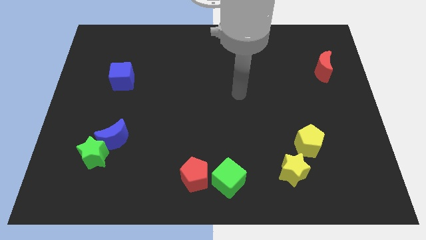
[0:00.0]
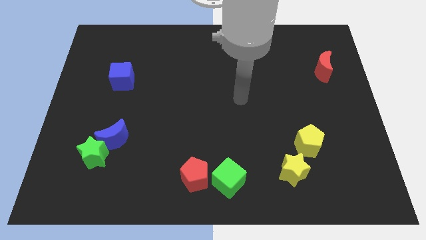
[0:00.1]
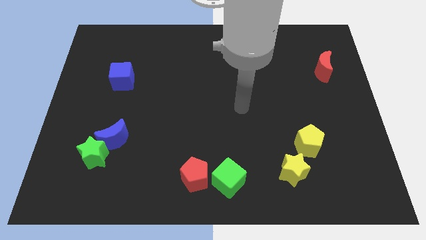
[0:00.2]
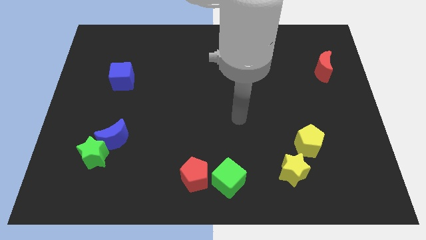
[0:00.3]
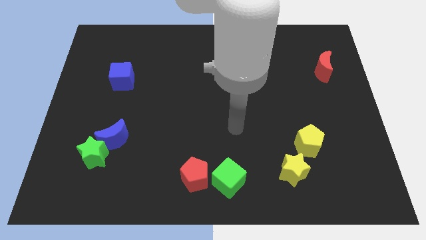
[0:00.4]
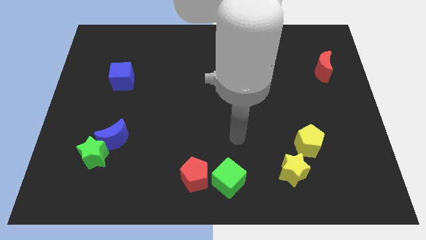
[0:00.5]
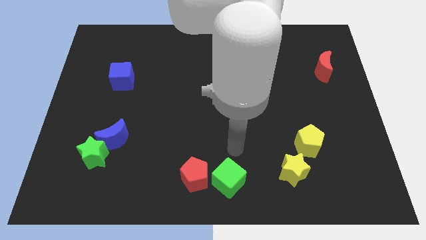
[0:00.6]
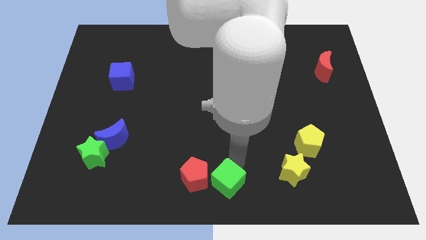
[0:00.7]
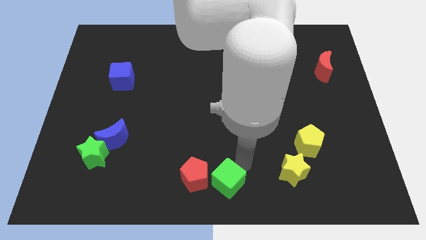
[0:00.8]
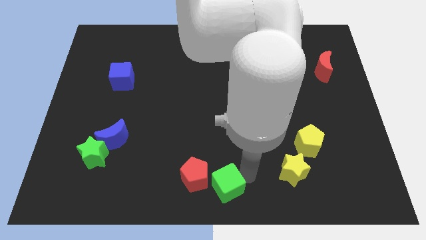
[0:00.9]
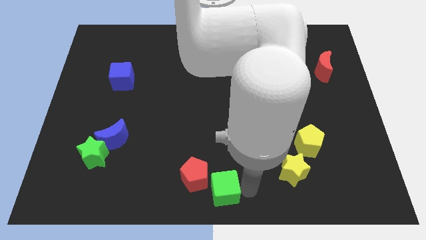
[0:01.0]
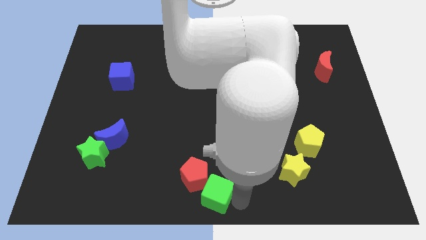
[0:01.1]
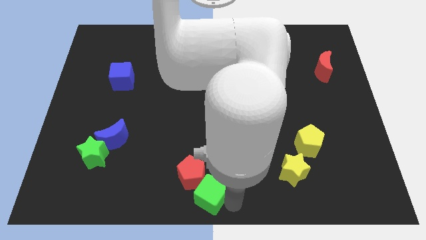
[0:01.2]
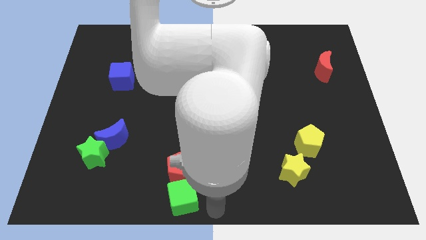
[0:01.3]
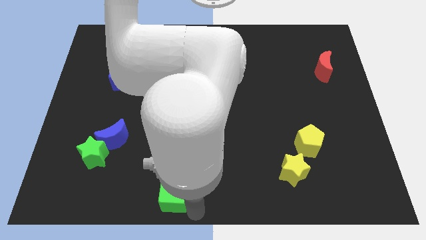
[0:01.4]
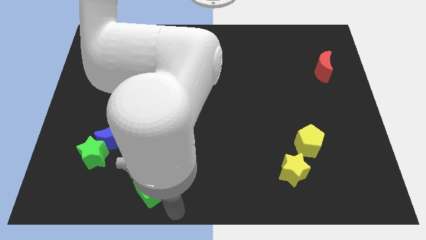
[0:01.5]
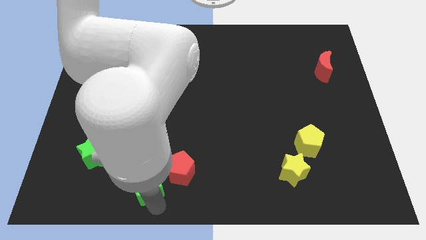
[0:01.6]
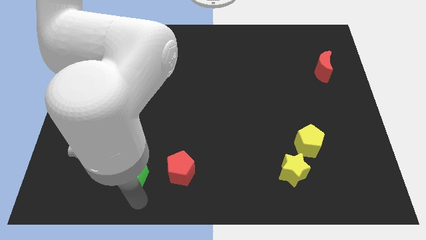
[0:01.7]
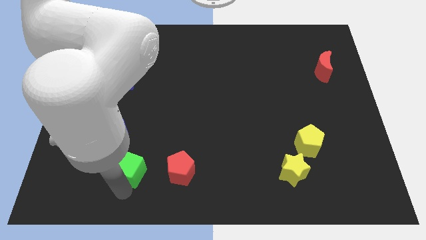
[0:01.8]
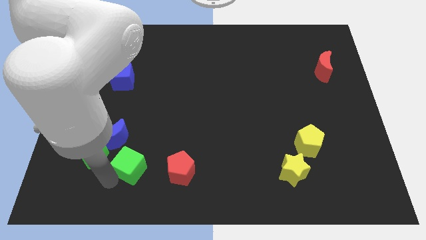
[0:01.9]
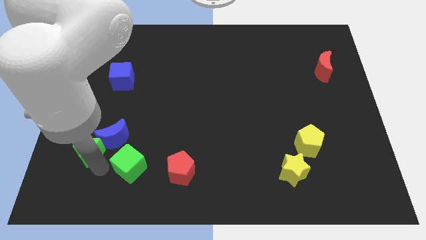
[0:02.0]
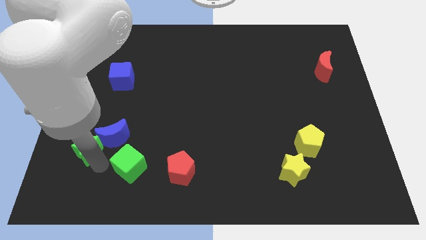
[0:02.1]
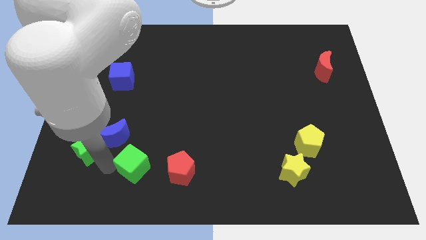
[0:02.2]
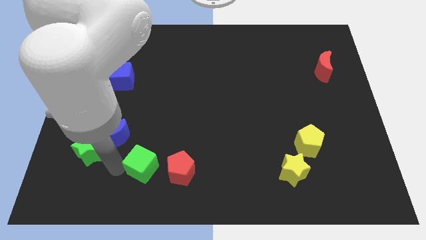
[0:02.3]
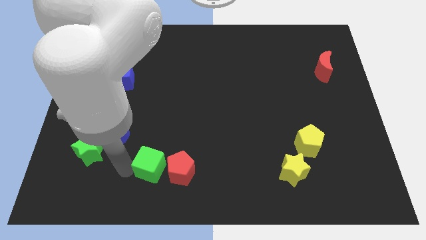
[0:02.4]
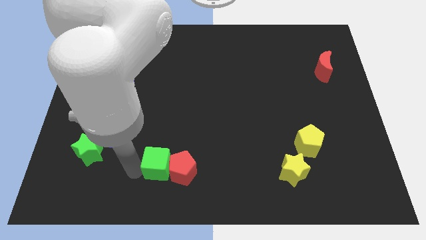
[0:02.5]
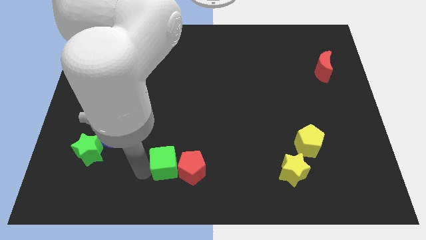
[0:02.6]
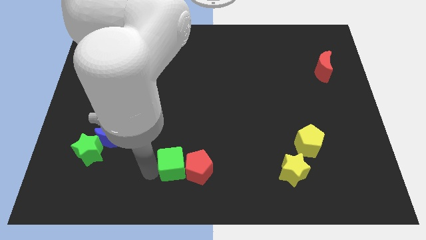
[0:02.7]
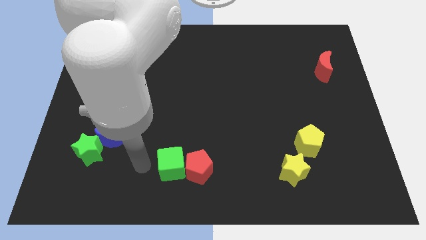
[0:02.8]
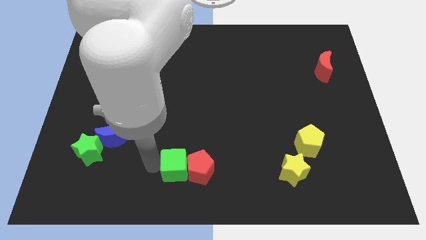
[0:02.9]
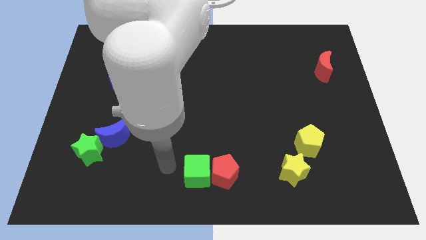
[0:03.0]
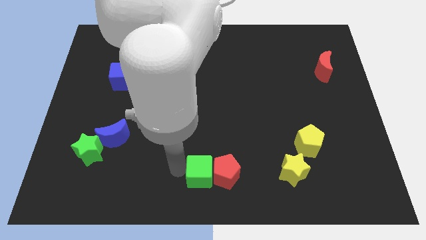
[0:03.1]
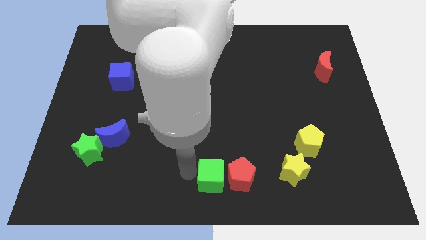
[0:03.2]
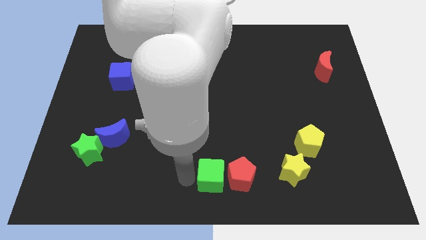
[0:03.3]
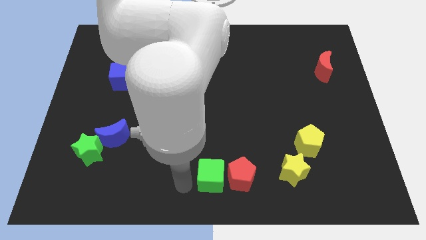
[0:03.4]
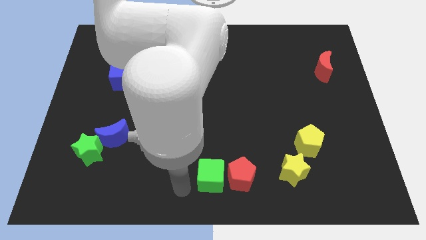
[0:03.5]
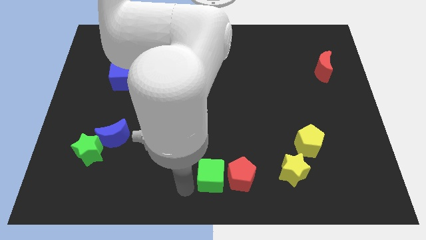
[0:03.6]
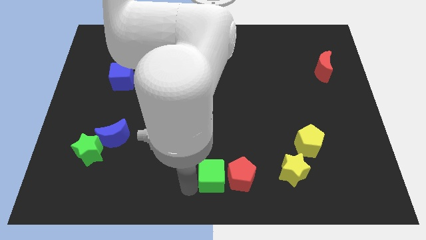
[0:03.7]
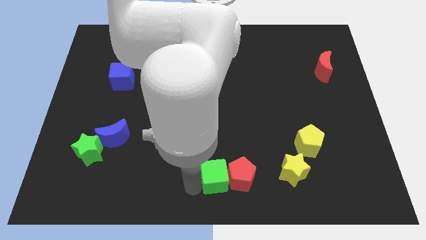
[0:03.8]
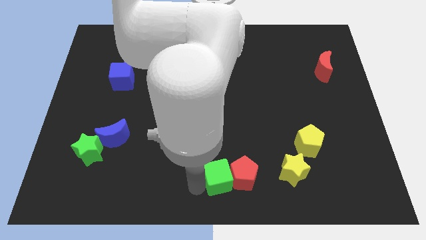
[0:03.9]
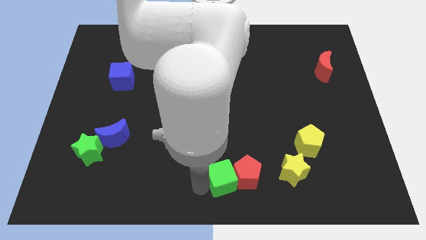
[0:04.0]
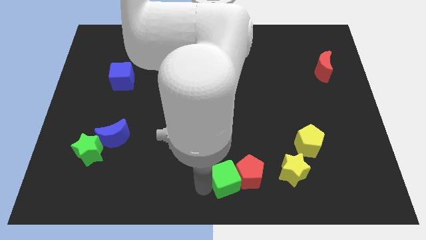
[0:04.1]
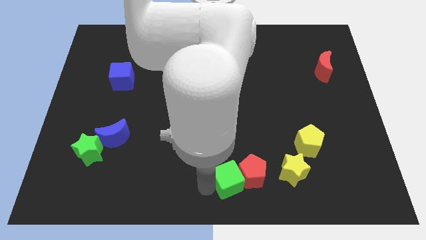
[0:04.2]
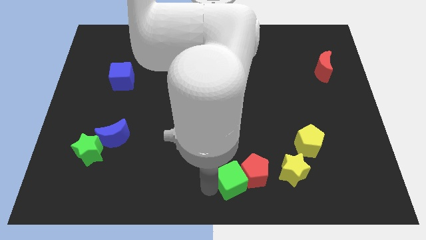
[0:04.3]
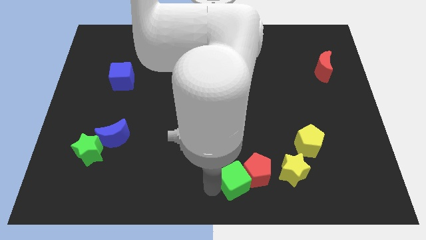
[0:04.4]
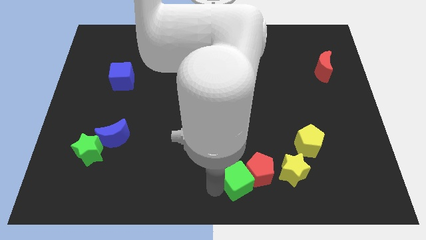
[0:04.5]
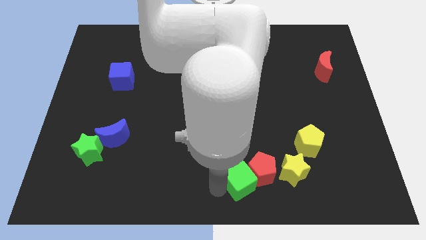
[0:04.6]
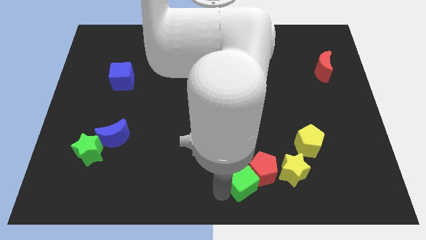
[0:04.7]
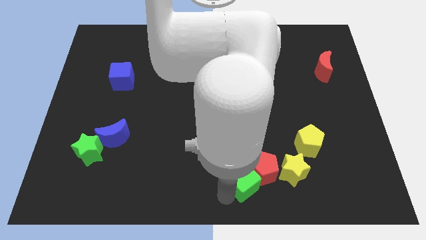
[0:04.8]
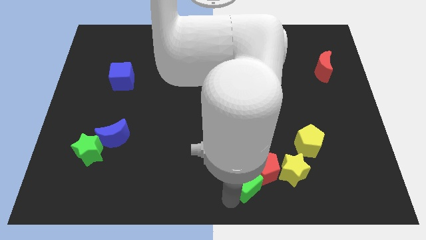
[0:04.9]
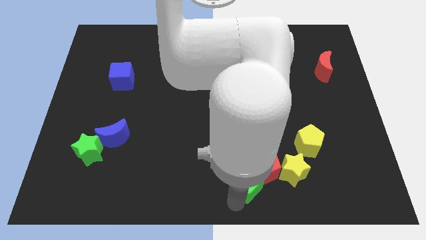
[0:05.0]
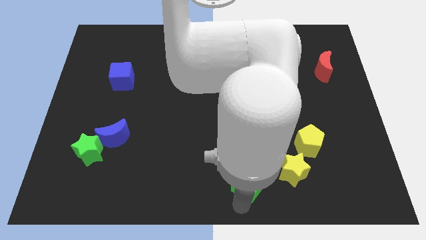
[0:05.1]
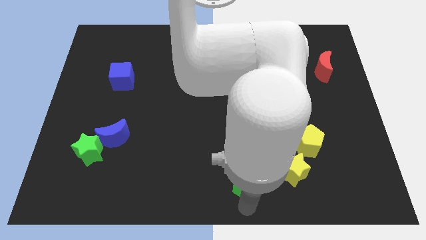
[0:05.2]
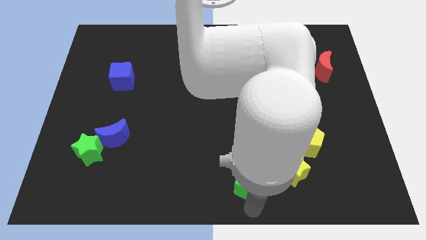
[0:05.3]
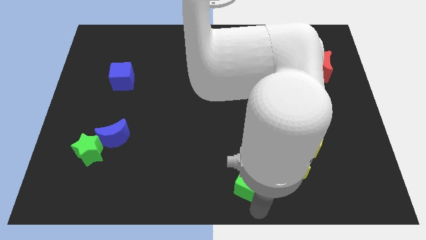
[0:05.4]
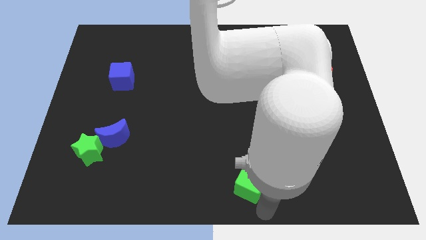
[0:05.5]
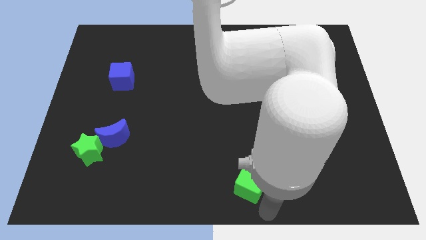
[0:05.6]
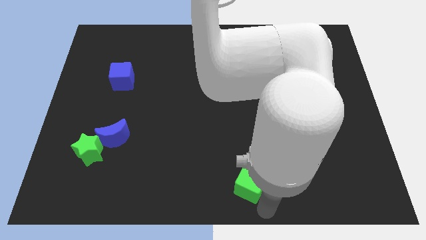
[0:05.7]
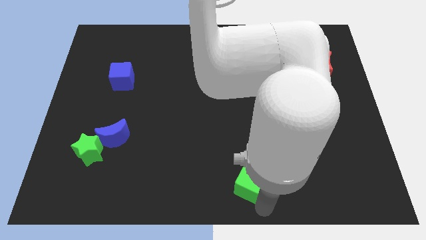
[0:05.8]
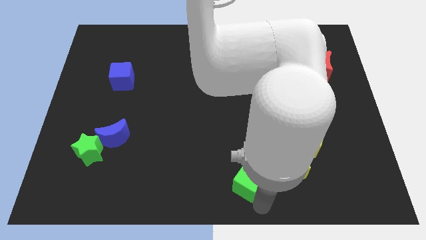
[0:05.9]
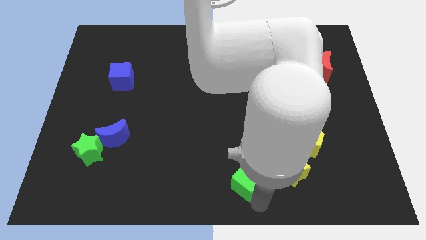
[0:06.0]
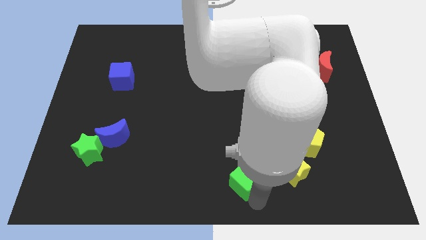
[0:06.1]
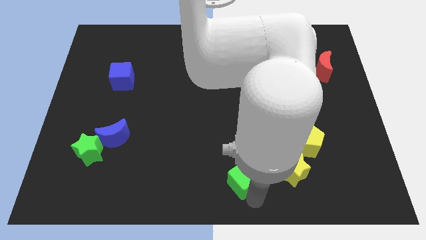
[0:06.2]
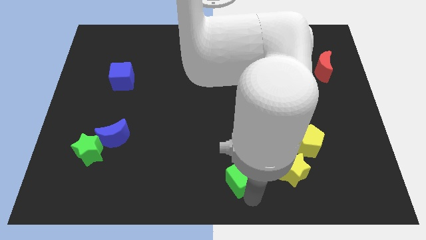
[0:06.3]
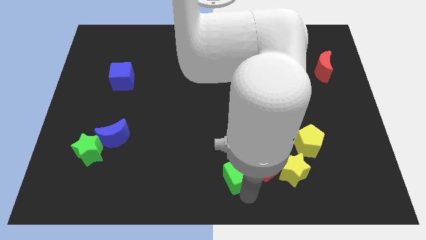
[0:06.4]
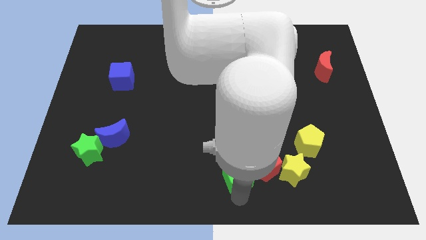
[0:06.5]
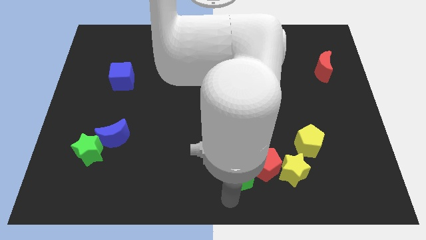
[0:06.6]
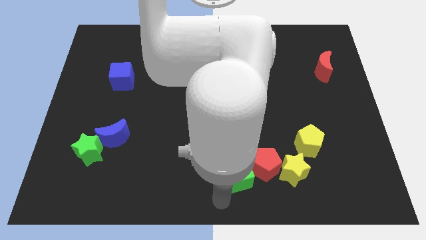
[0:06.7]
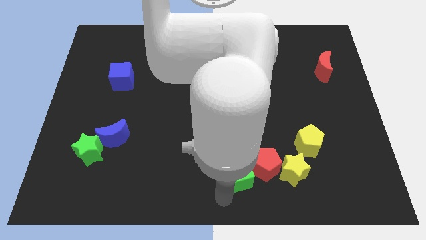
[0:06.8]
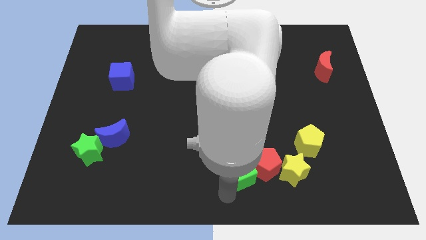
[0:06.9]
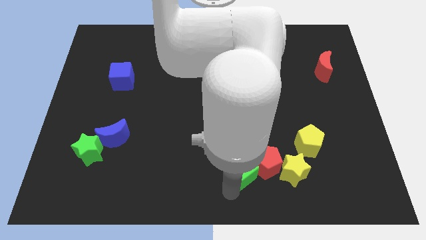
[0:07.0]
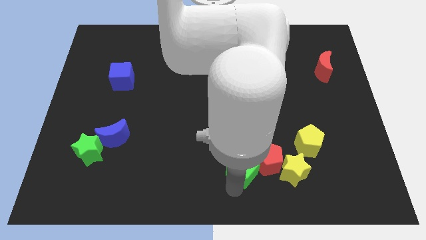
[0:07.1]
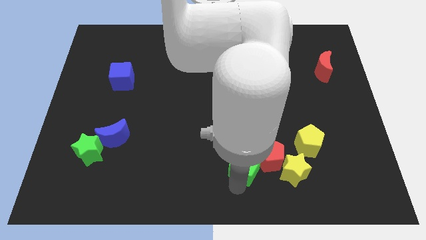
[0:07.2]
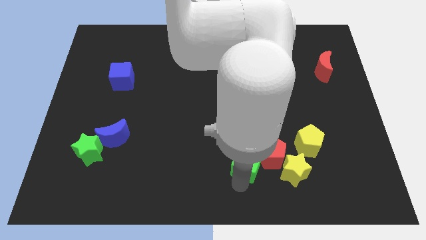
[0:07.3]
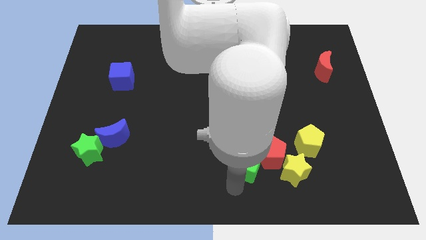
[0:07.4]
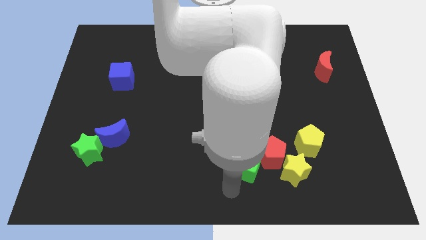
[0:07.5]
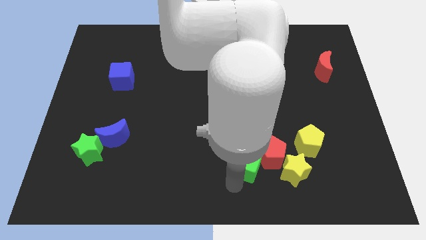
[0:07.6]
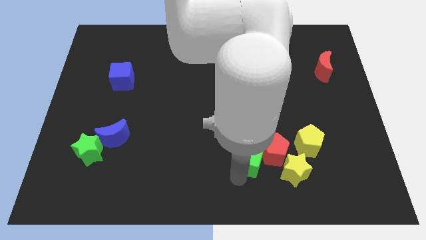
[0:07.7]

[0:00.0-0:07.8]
move the green cube to the left side of the yellow pentagon
